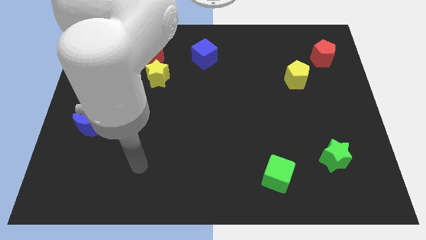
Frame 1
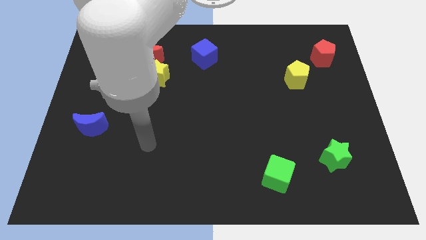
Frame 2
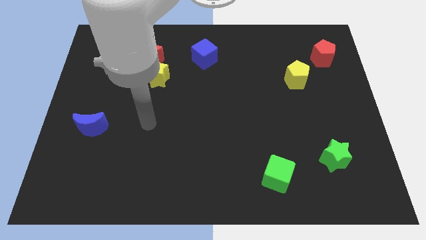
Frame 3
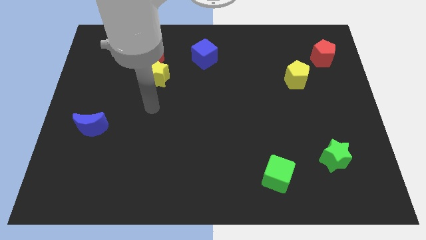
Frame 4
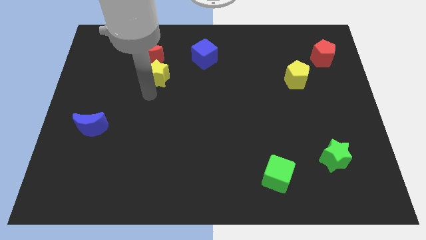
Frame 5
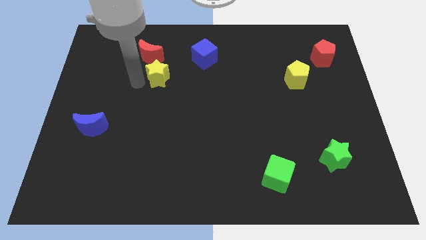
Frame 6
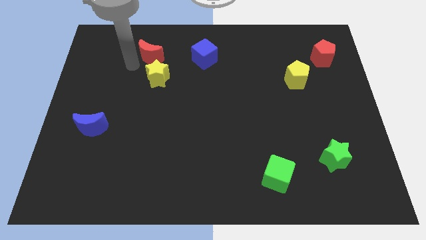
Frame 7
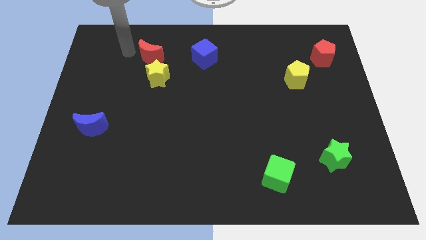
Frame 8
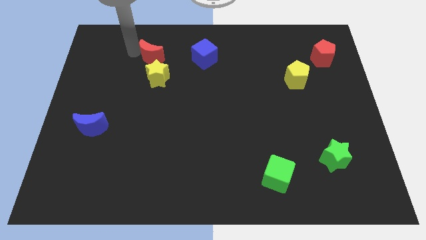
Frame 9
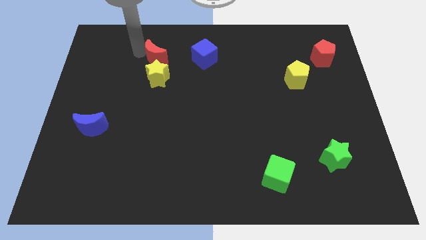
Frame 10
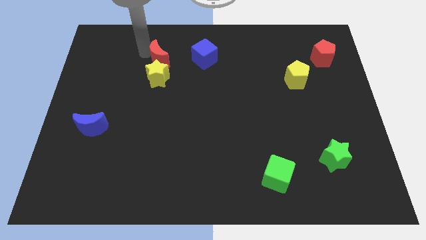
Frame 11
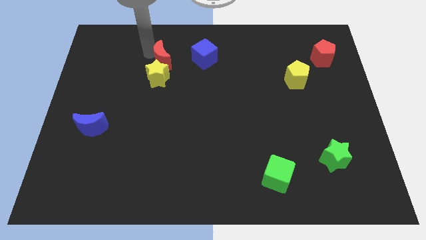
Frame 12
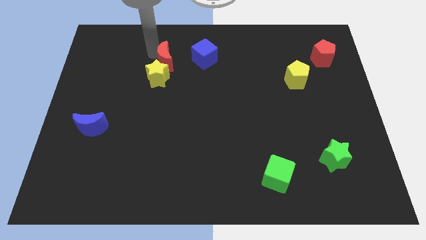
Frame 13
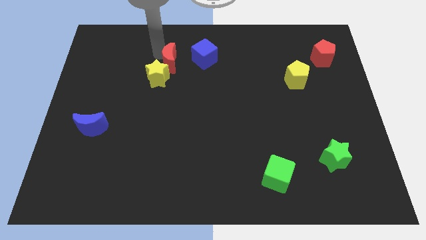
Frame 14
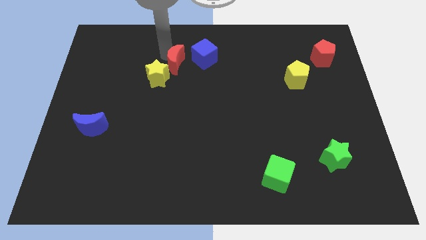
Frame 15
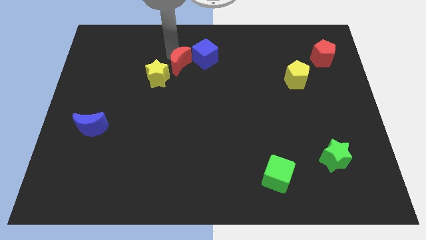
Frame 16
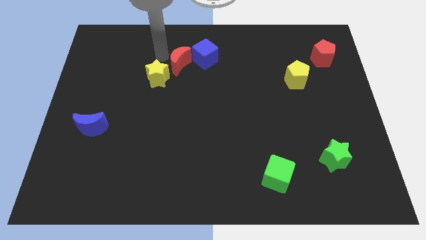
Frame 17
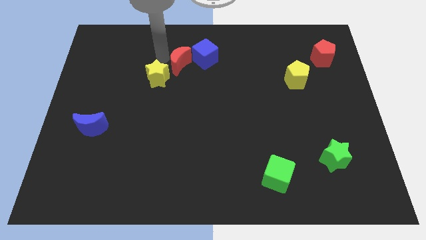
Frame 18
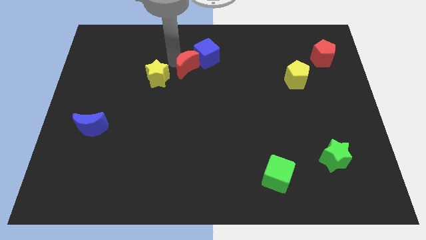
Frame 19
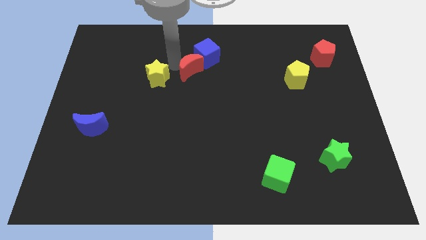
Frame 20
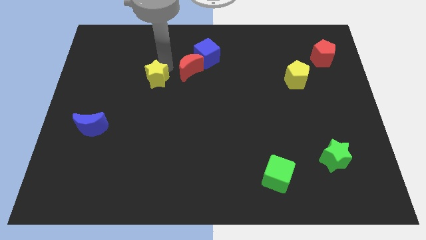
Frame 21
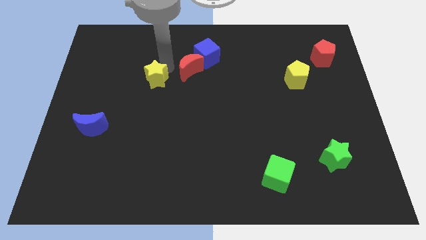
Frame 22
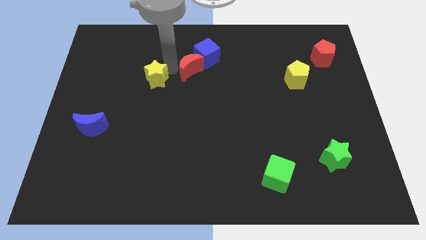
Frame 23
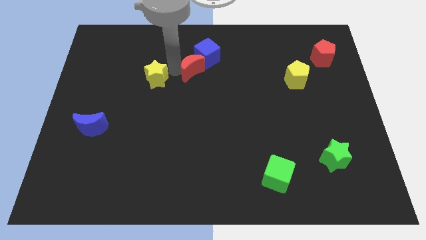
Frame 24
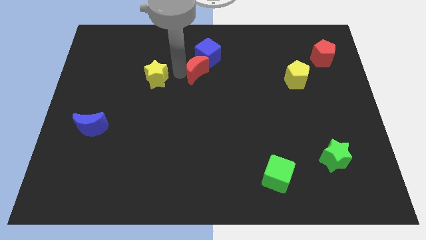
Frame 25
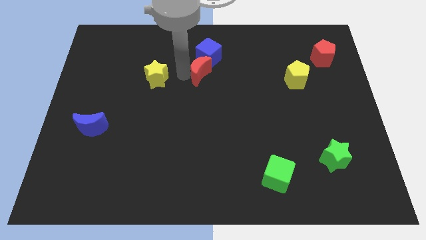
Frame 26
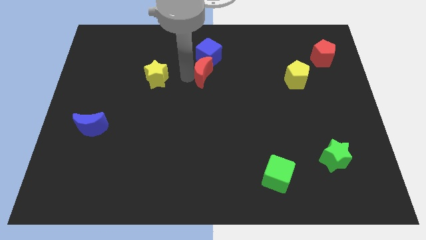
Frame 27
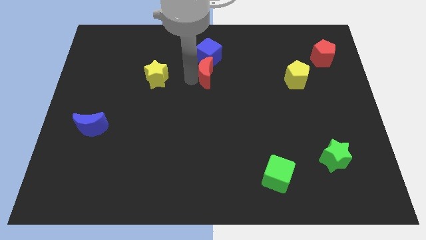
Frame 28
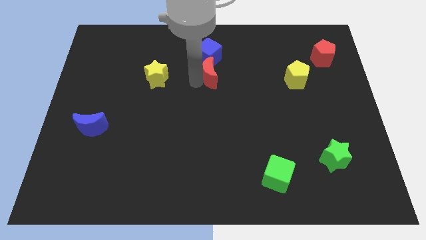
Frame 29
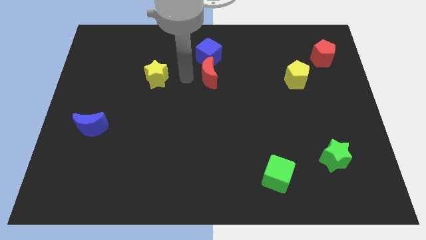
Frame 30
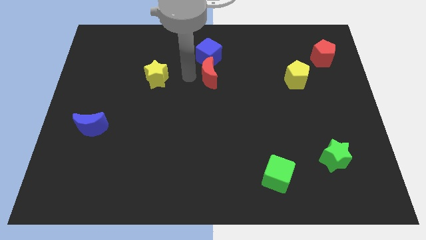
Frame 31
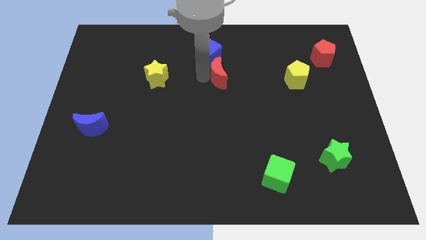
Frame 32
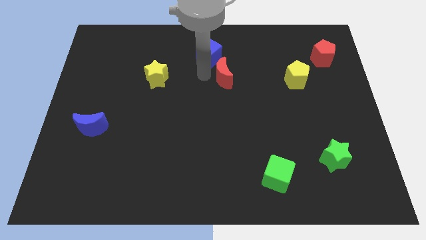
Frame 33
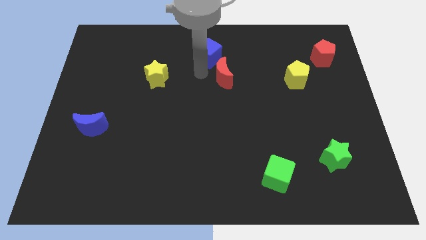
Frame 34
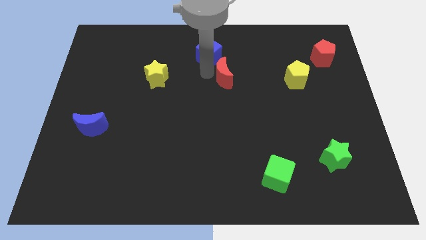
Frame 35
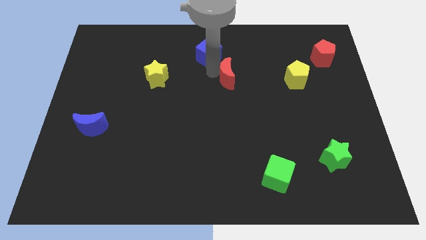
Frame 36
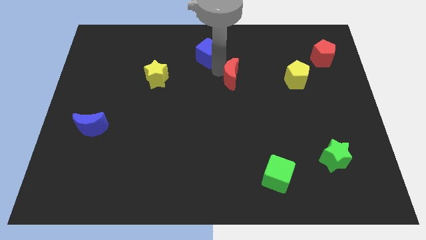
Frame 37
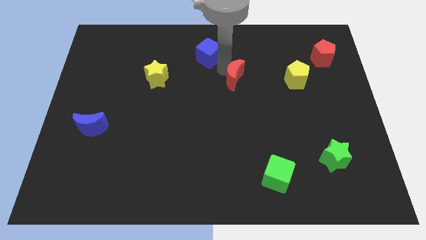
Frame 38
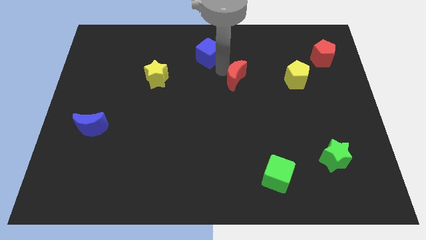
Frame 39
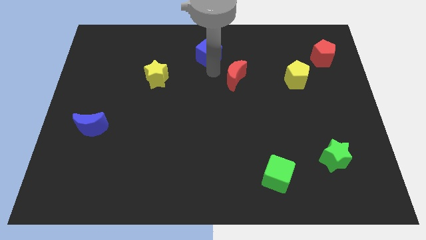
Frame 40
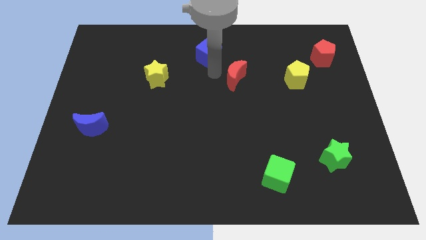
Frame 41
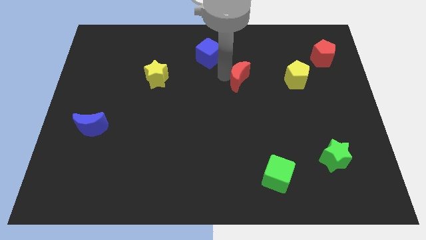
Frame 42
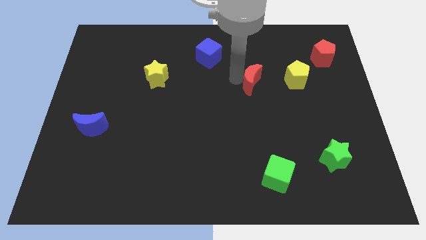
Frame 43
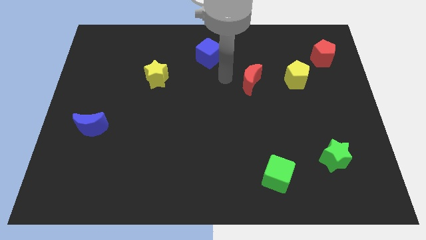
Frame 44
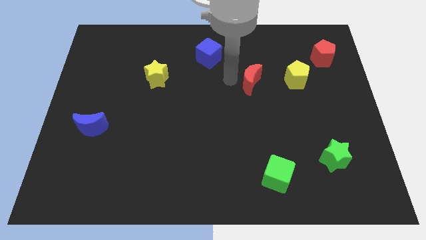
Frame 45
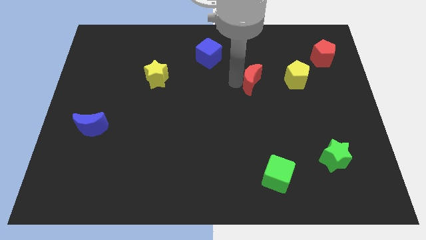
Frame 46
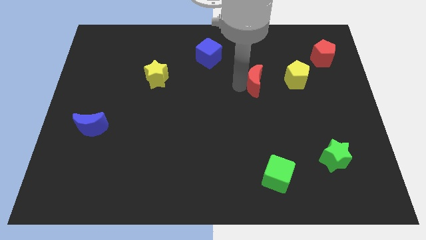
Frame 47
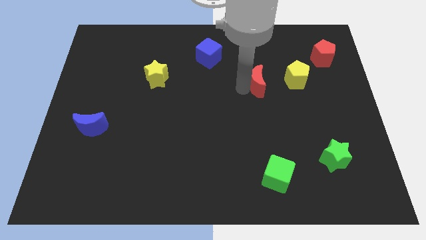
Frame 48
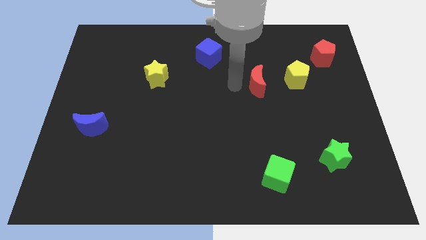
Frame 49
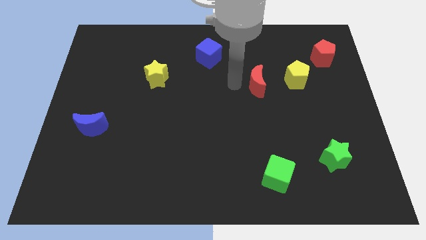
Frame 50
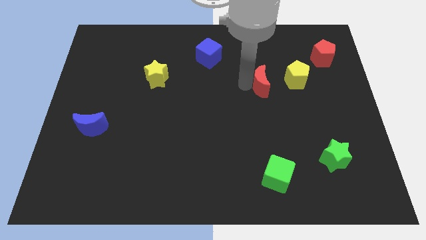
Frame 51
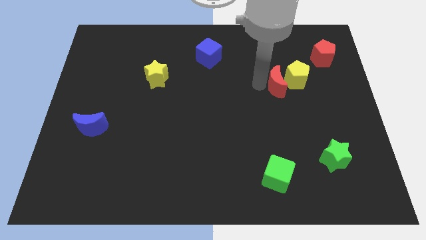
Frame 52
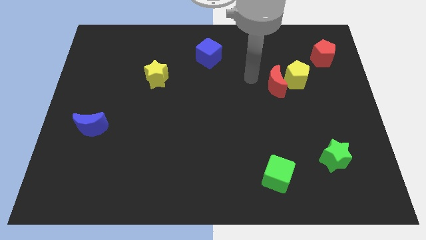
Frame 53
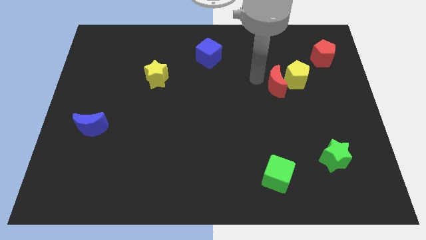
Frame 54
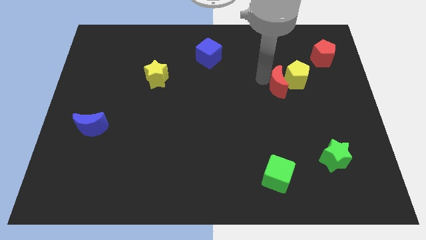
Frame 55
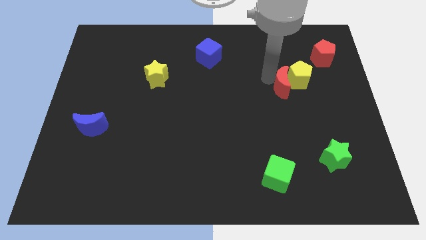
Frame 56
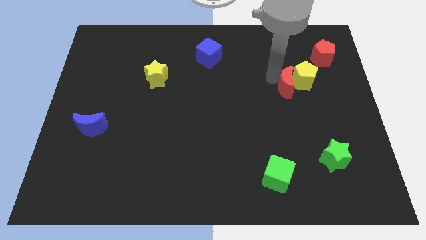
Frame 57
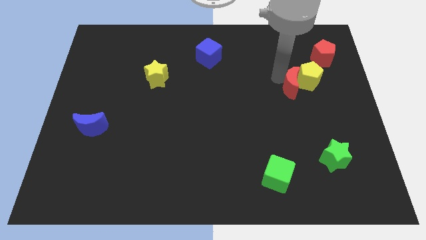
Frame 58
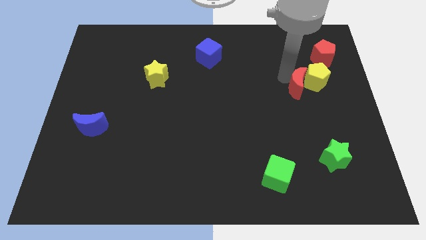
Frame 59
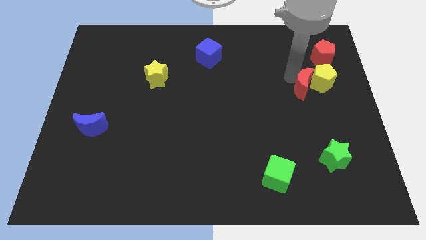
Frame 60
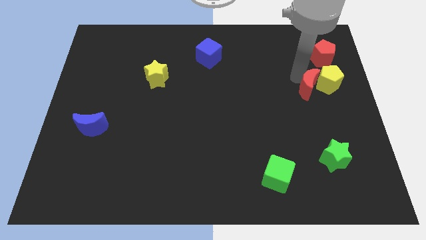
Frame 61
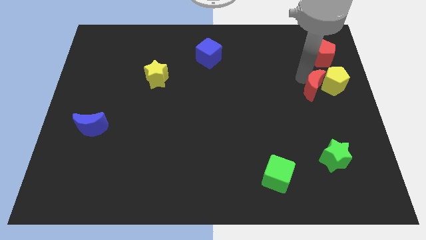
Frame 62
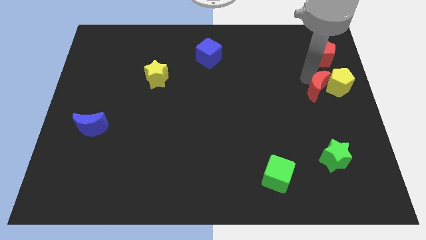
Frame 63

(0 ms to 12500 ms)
move the red moon to the right side of the board
